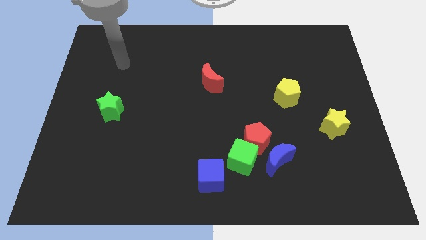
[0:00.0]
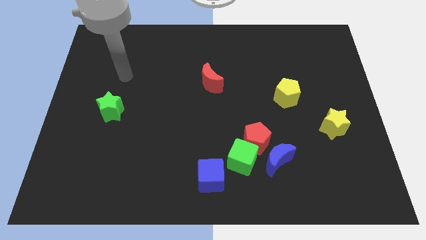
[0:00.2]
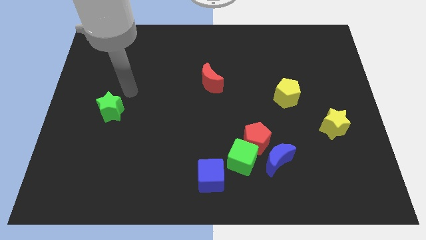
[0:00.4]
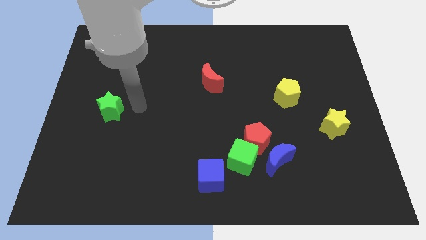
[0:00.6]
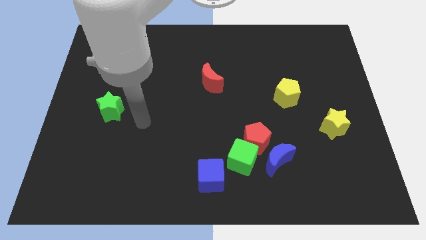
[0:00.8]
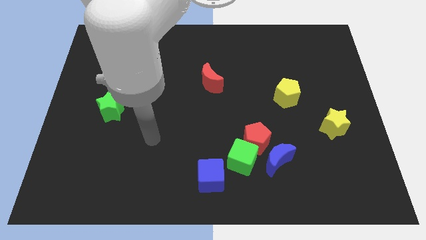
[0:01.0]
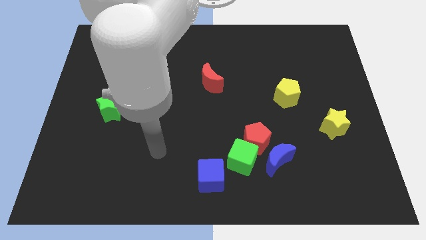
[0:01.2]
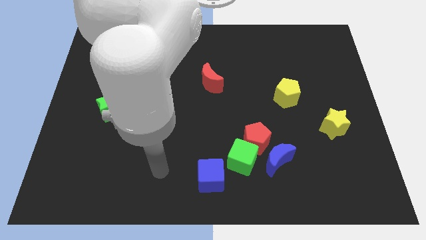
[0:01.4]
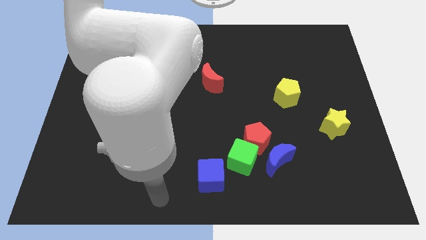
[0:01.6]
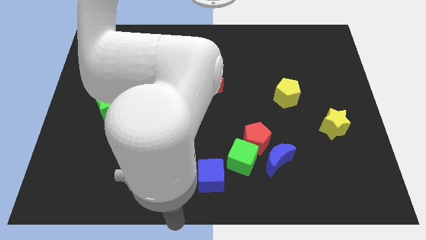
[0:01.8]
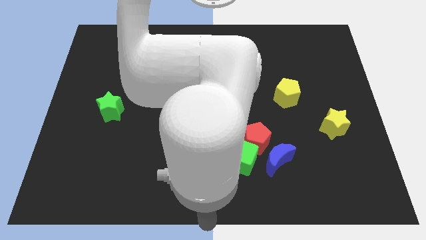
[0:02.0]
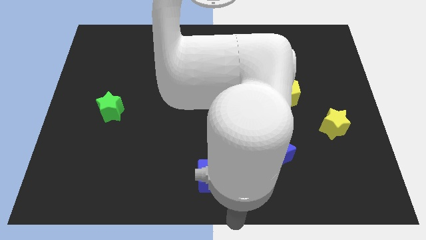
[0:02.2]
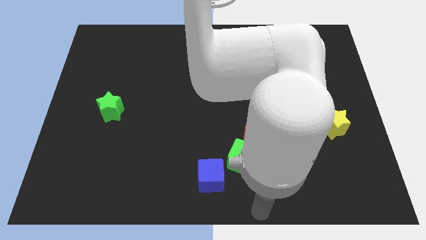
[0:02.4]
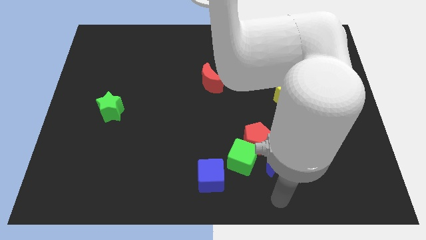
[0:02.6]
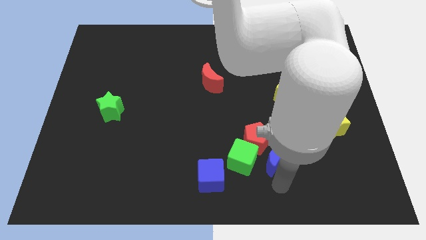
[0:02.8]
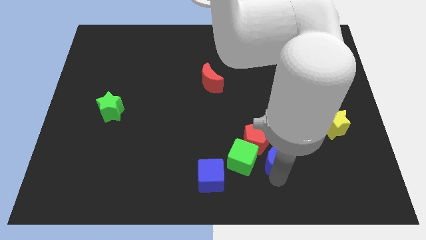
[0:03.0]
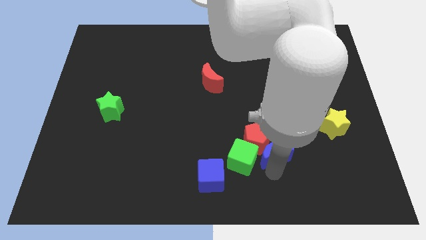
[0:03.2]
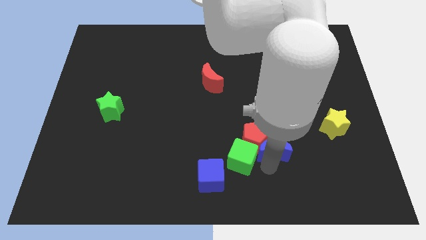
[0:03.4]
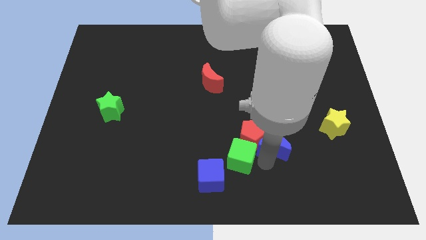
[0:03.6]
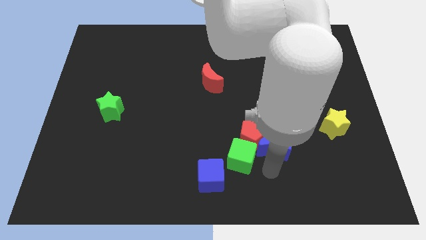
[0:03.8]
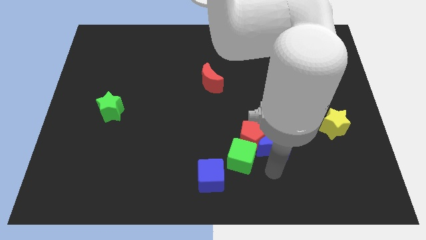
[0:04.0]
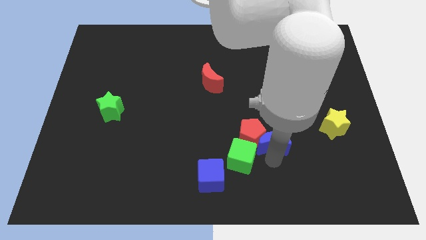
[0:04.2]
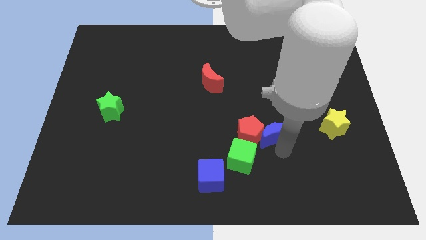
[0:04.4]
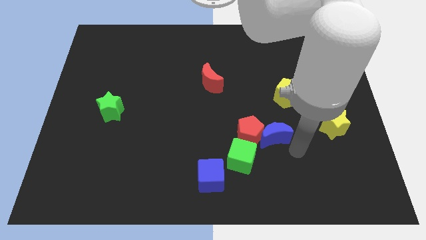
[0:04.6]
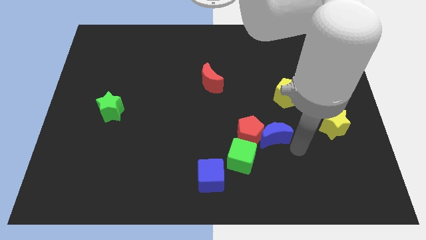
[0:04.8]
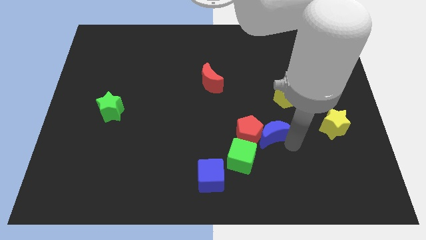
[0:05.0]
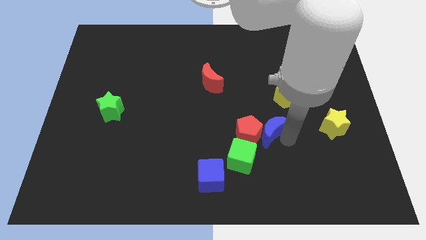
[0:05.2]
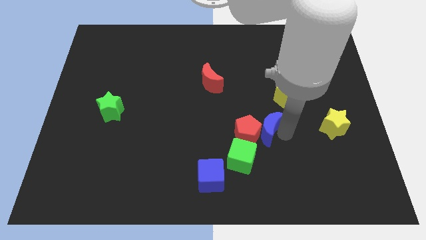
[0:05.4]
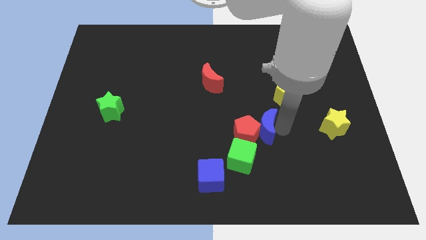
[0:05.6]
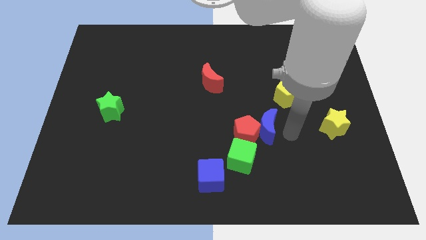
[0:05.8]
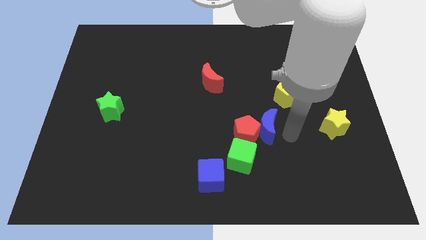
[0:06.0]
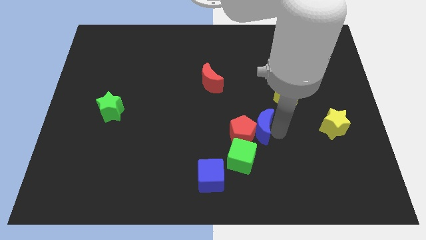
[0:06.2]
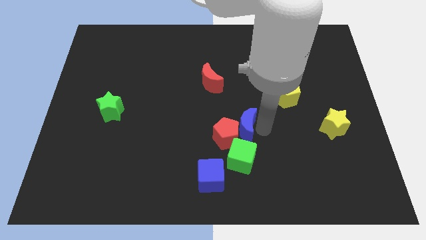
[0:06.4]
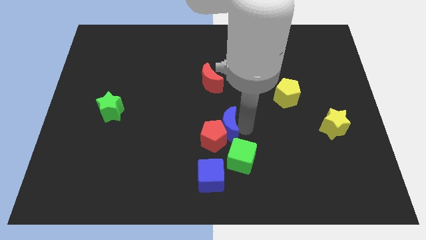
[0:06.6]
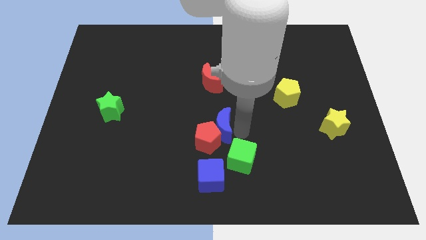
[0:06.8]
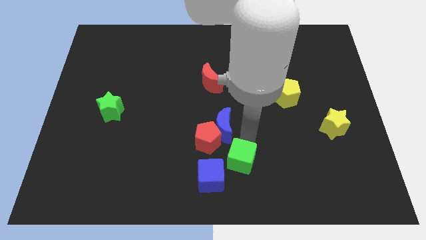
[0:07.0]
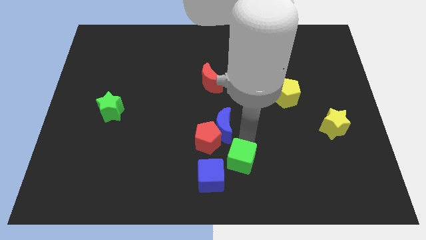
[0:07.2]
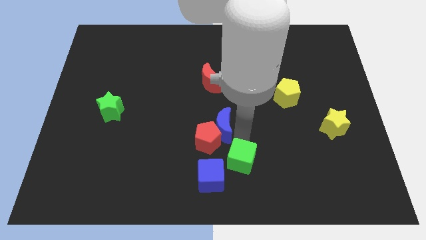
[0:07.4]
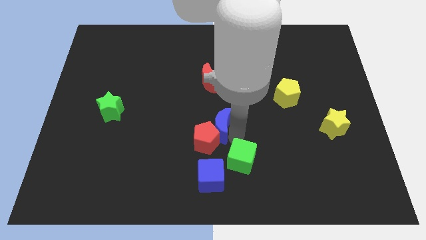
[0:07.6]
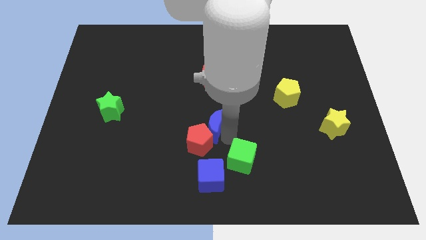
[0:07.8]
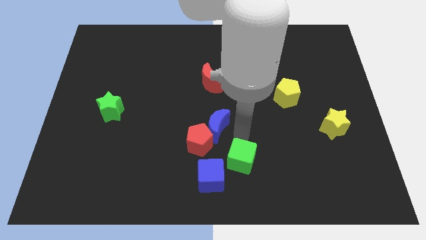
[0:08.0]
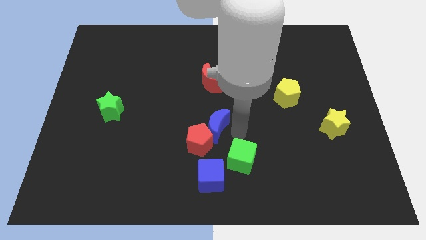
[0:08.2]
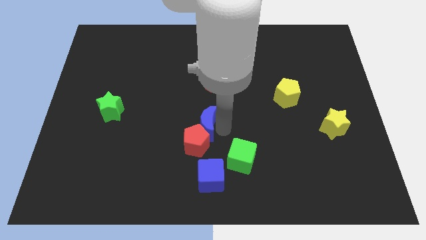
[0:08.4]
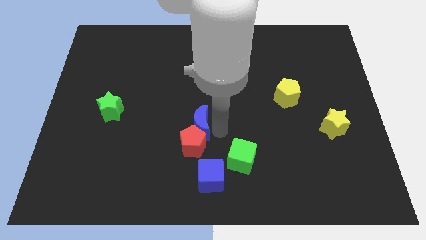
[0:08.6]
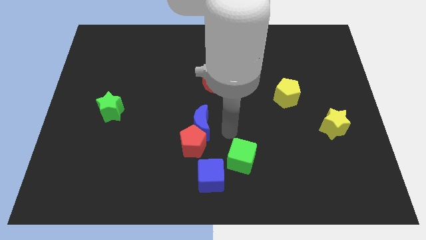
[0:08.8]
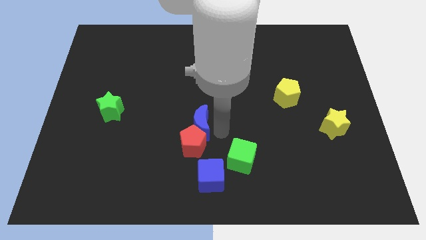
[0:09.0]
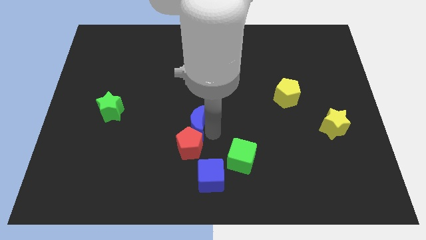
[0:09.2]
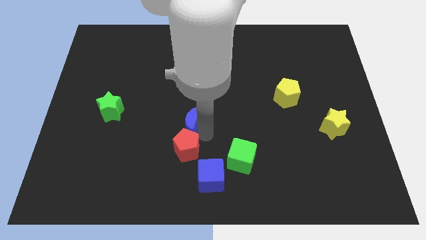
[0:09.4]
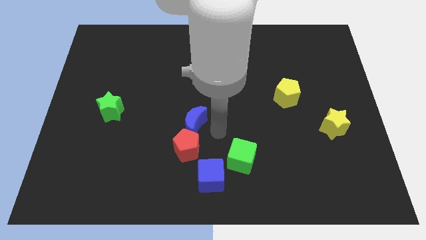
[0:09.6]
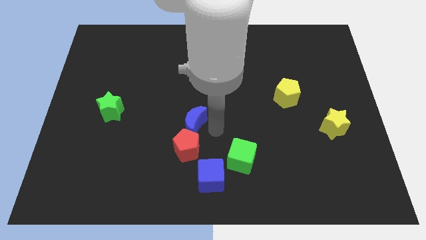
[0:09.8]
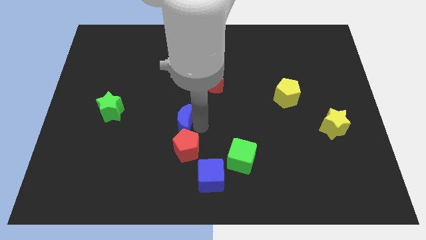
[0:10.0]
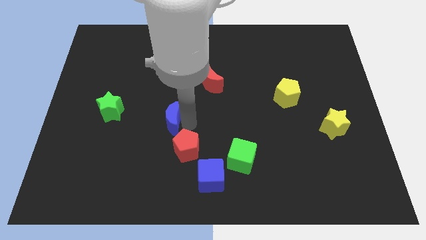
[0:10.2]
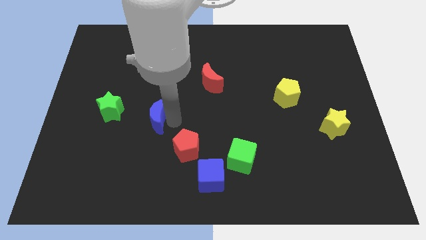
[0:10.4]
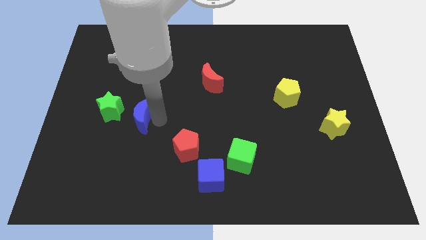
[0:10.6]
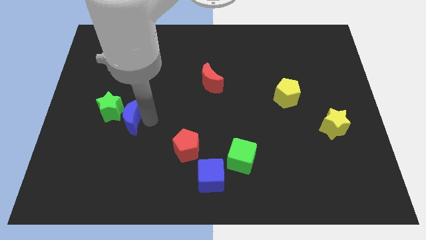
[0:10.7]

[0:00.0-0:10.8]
put the blue moon close to the green star

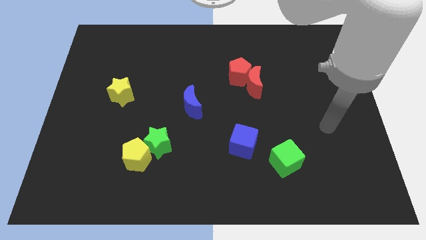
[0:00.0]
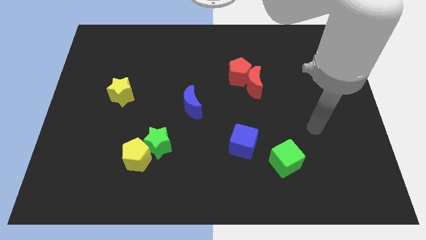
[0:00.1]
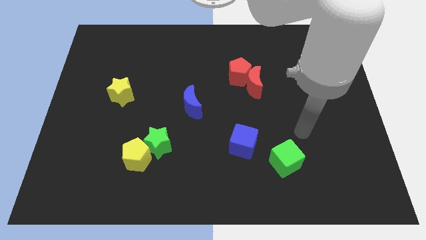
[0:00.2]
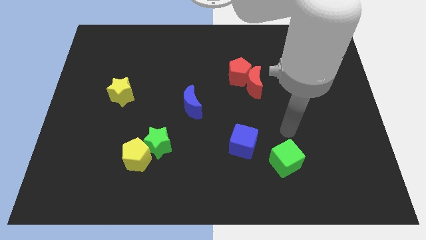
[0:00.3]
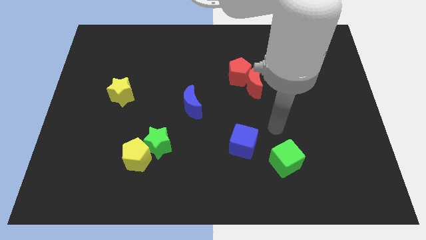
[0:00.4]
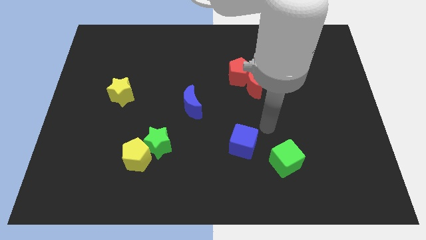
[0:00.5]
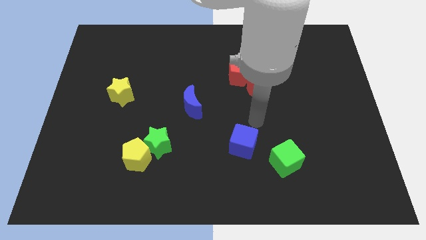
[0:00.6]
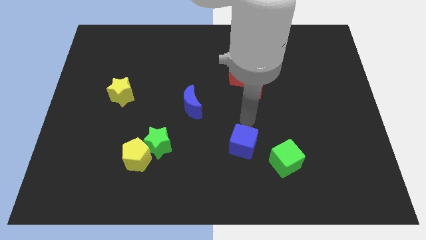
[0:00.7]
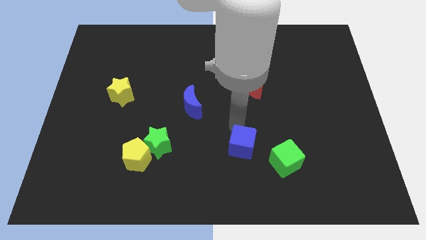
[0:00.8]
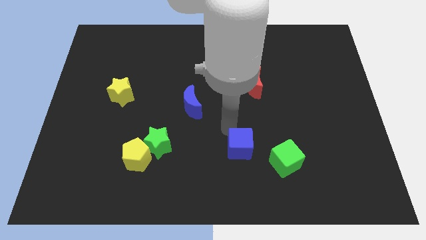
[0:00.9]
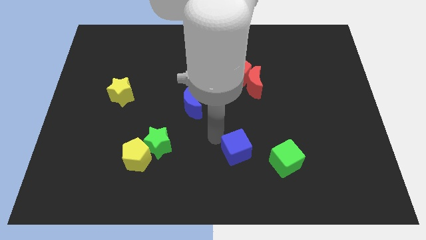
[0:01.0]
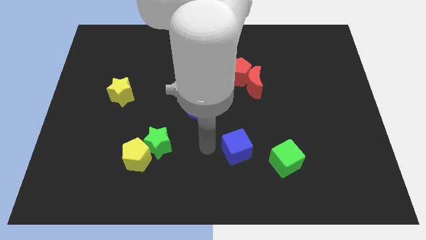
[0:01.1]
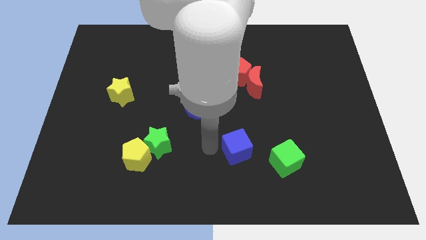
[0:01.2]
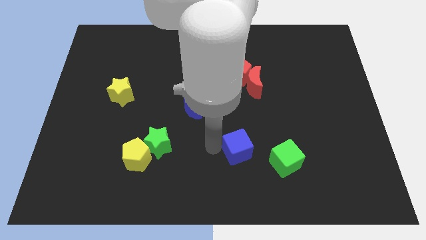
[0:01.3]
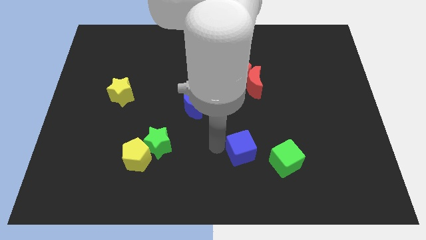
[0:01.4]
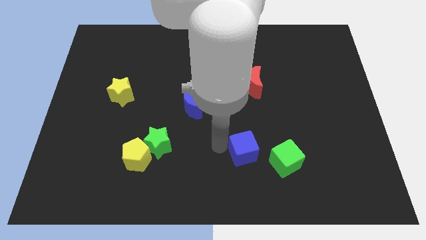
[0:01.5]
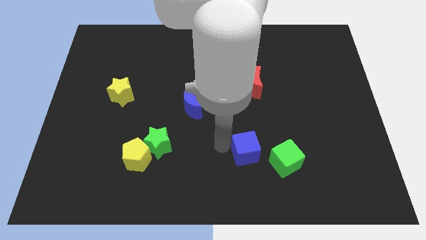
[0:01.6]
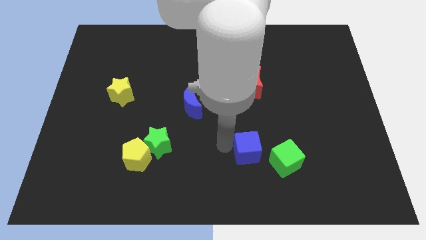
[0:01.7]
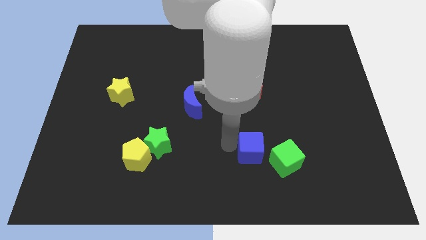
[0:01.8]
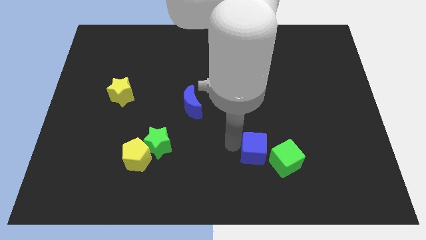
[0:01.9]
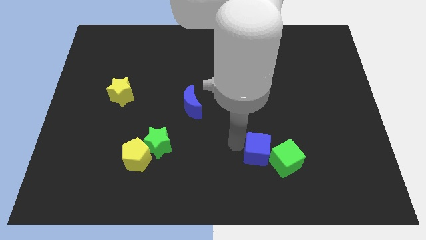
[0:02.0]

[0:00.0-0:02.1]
push the blue cube to the green cube
